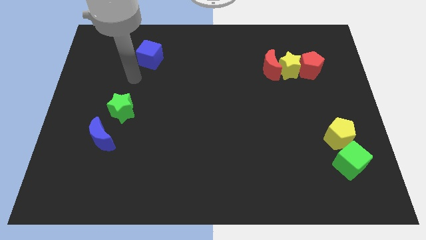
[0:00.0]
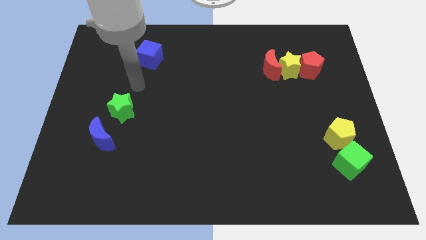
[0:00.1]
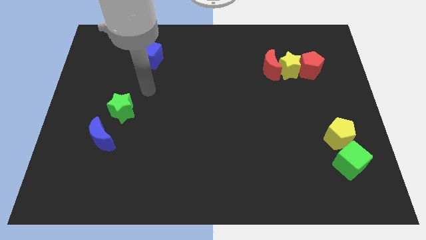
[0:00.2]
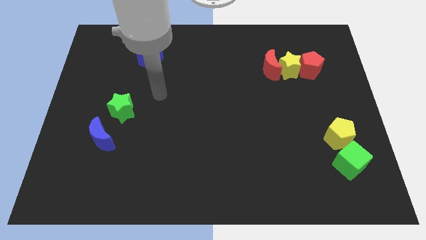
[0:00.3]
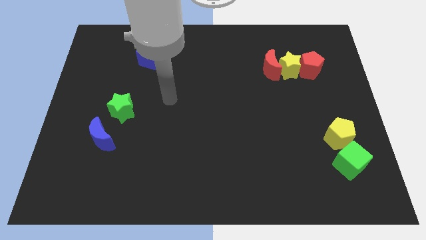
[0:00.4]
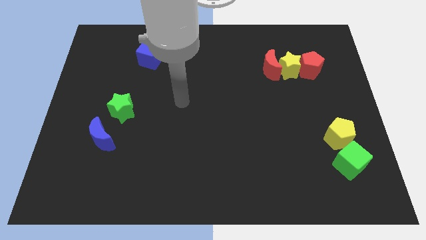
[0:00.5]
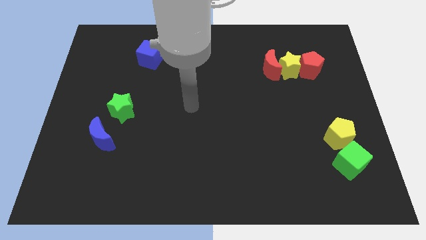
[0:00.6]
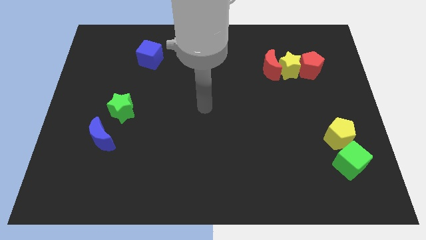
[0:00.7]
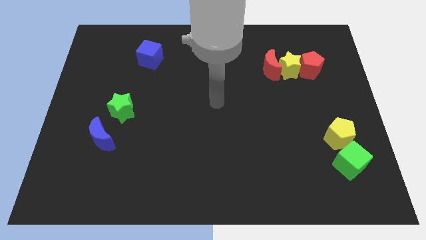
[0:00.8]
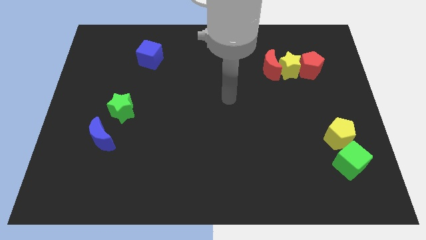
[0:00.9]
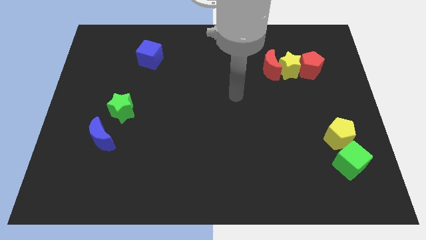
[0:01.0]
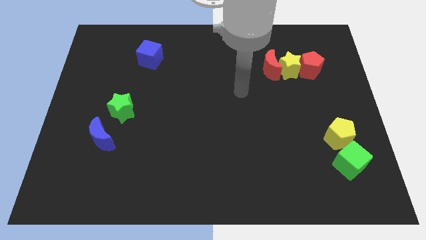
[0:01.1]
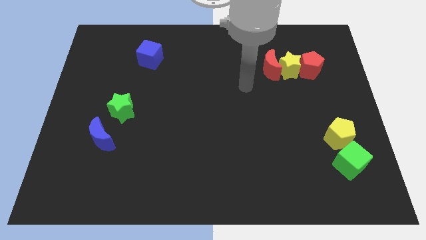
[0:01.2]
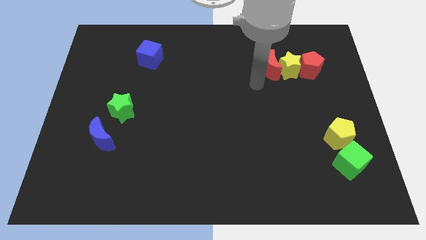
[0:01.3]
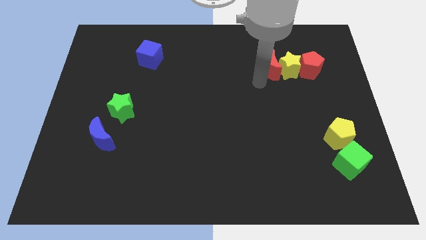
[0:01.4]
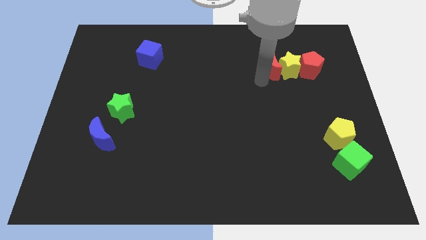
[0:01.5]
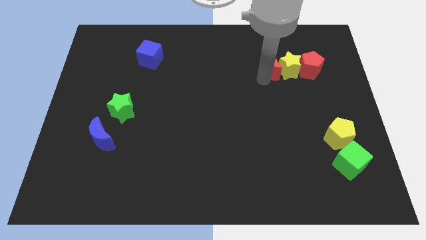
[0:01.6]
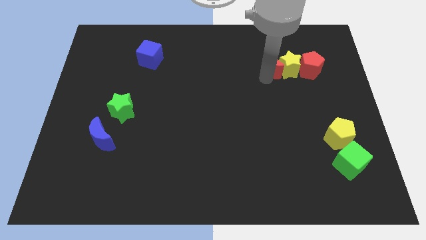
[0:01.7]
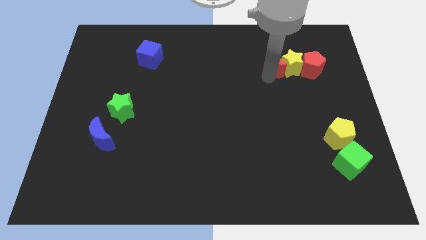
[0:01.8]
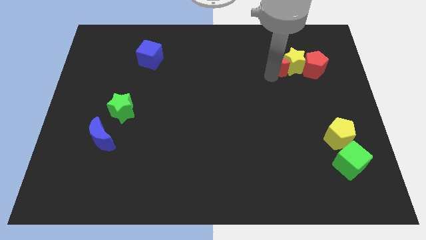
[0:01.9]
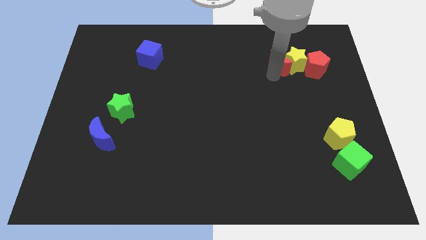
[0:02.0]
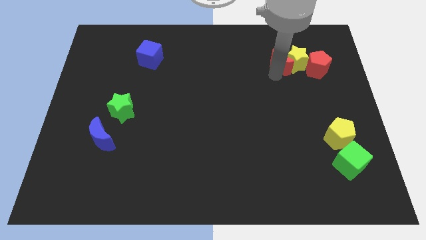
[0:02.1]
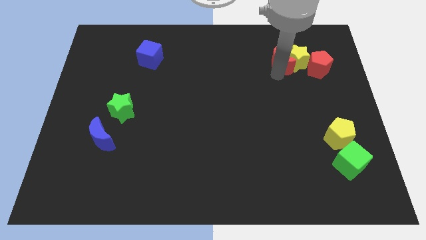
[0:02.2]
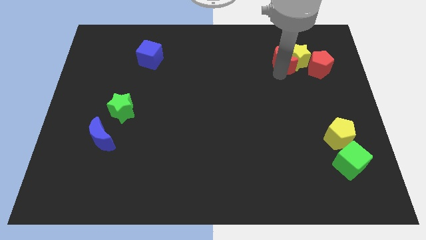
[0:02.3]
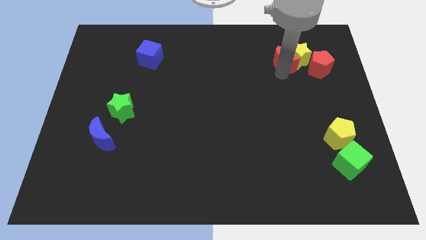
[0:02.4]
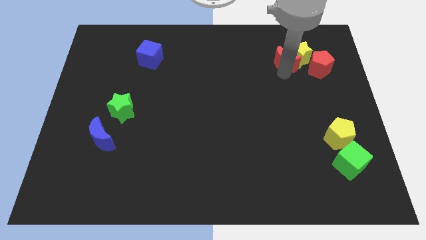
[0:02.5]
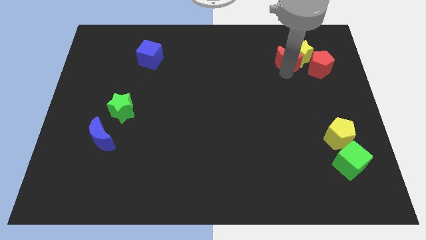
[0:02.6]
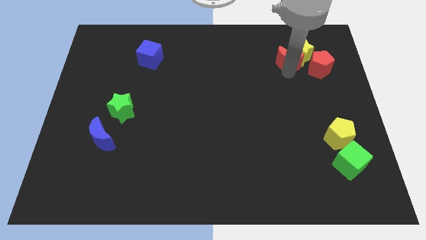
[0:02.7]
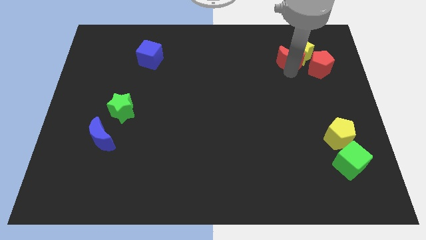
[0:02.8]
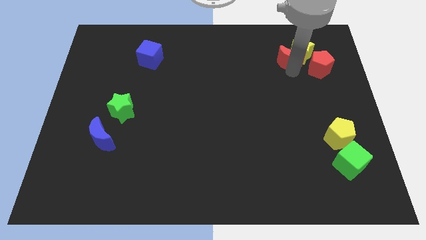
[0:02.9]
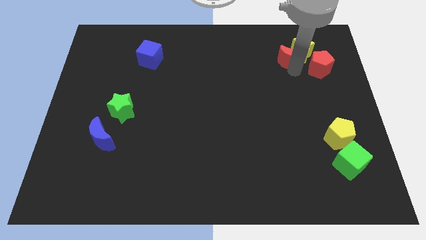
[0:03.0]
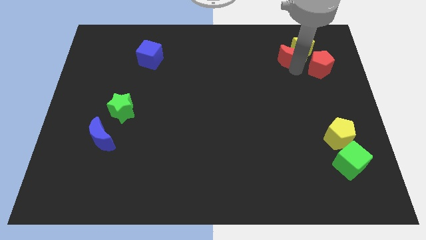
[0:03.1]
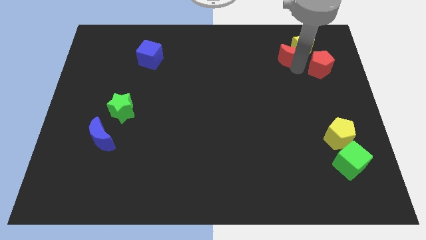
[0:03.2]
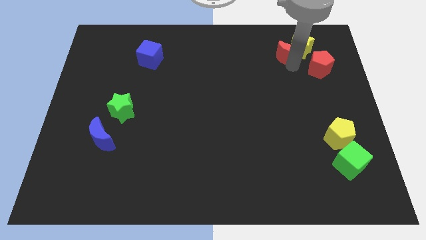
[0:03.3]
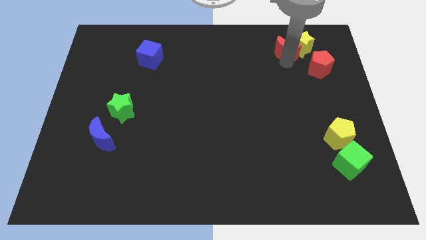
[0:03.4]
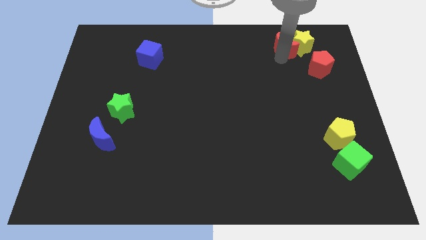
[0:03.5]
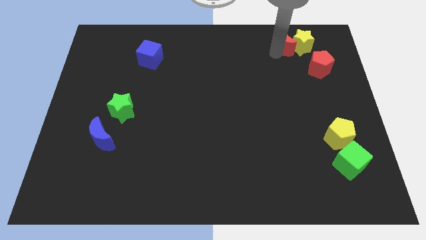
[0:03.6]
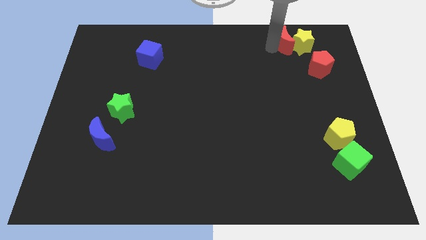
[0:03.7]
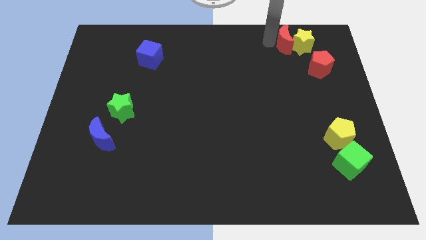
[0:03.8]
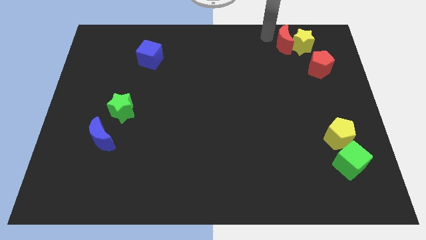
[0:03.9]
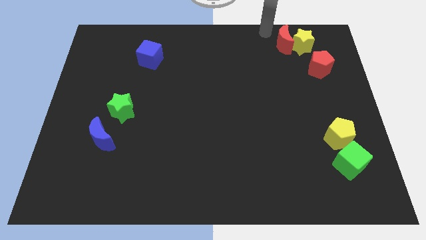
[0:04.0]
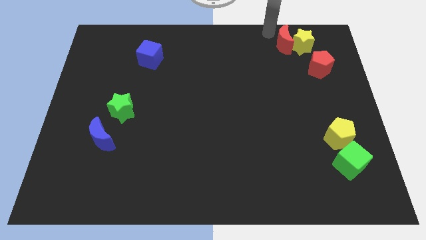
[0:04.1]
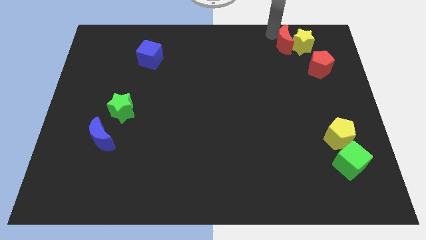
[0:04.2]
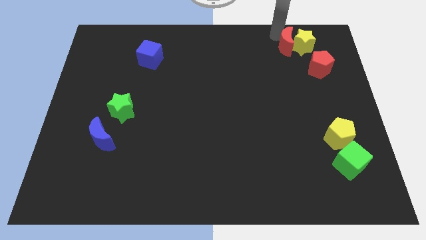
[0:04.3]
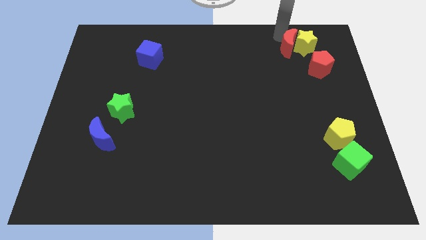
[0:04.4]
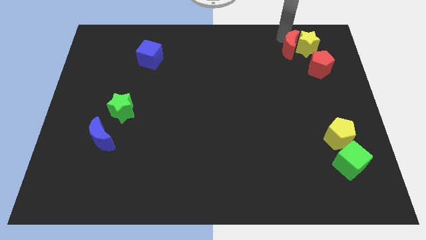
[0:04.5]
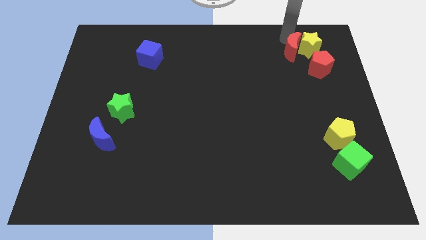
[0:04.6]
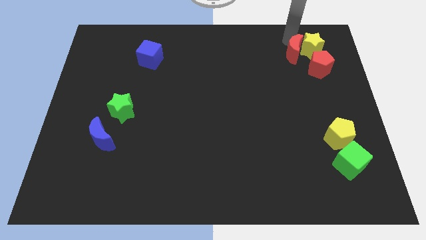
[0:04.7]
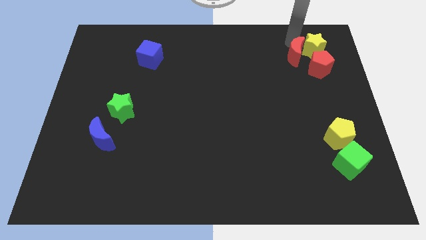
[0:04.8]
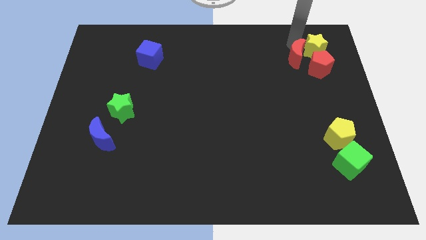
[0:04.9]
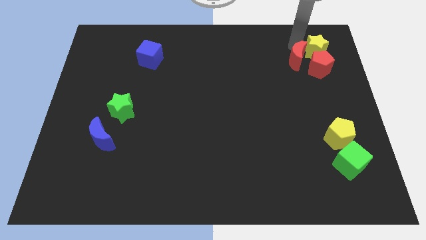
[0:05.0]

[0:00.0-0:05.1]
slide the red moon to the red pentagon

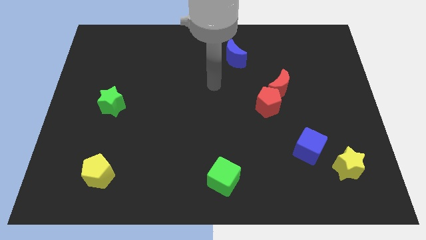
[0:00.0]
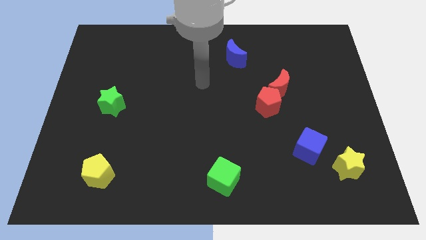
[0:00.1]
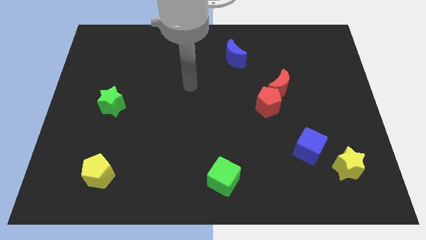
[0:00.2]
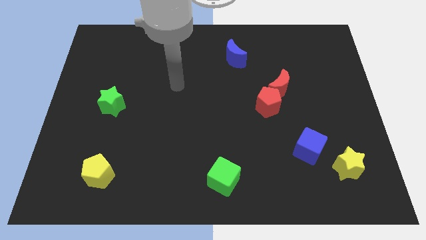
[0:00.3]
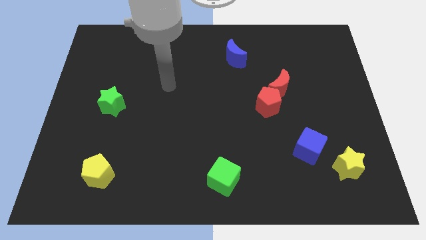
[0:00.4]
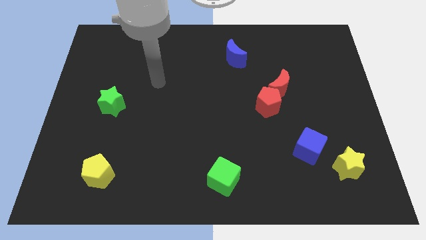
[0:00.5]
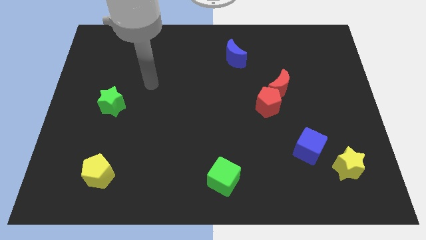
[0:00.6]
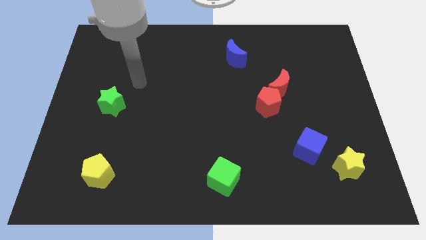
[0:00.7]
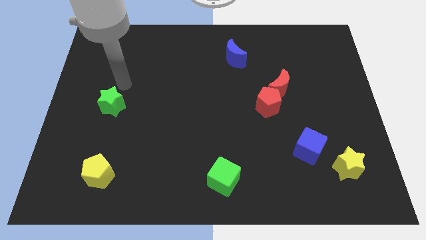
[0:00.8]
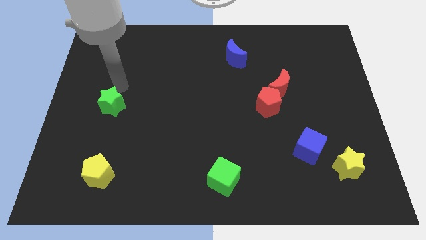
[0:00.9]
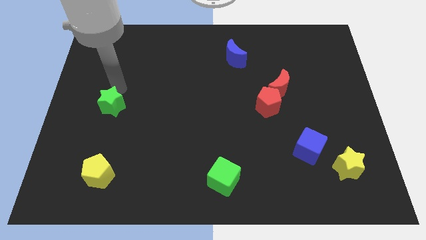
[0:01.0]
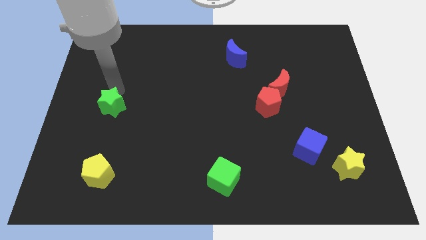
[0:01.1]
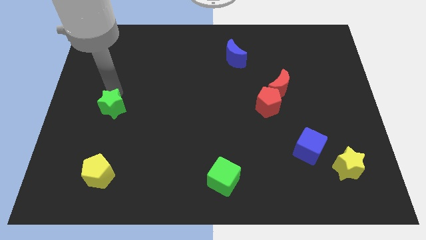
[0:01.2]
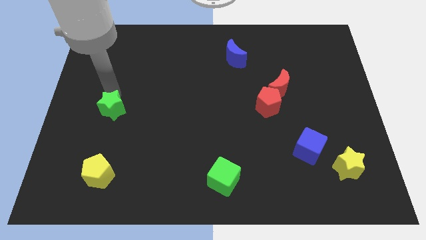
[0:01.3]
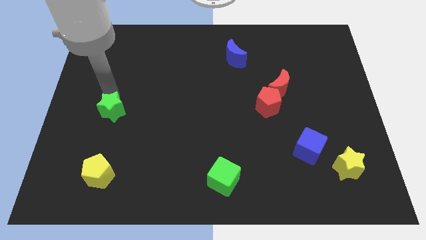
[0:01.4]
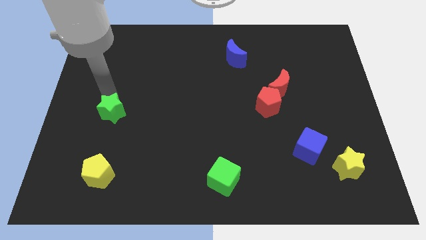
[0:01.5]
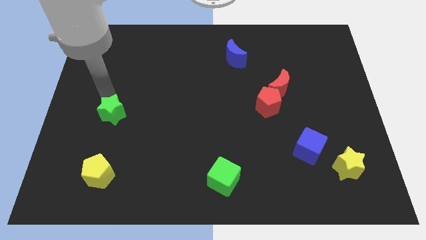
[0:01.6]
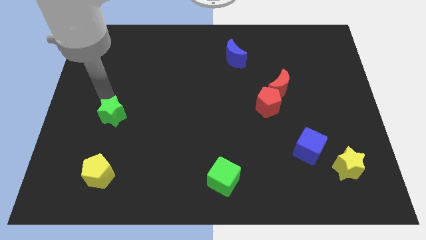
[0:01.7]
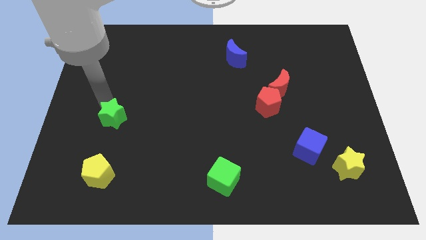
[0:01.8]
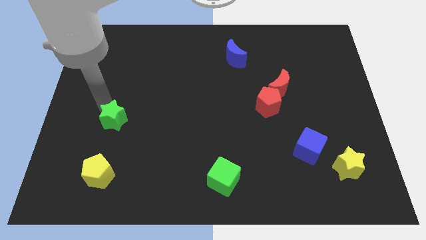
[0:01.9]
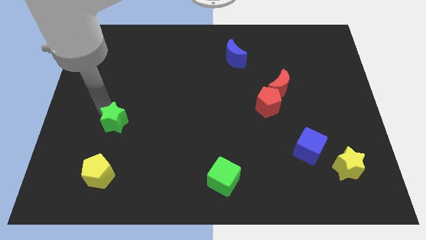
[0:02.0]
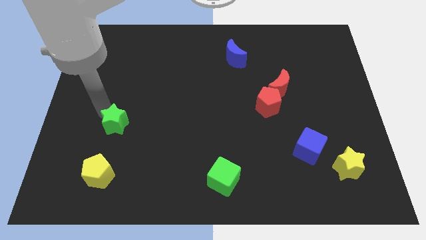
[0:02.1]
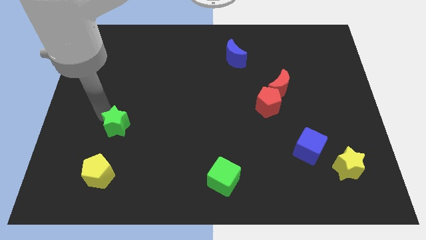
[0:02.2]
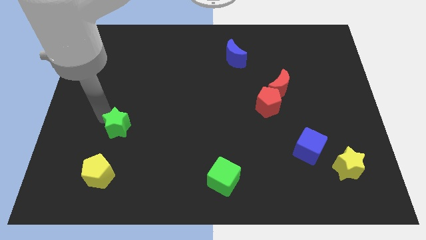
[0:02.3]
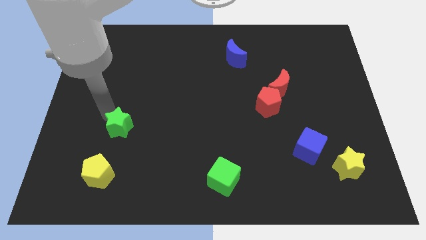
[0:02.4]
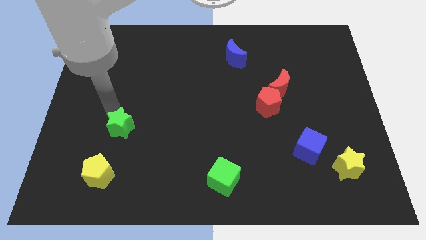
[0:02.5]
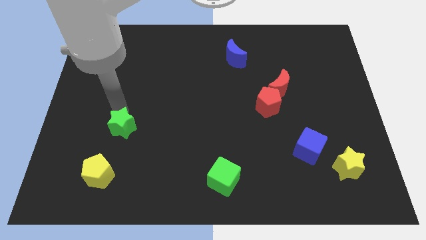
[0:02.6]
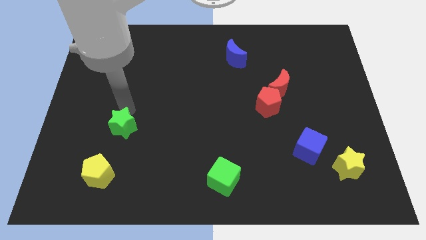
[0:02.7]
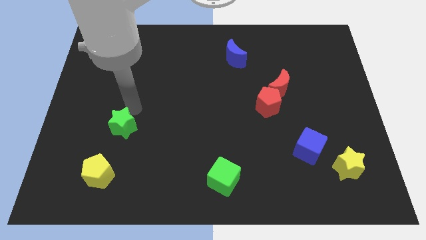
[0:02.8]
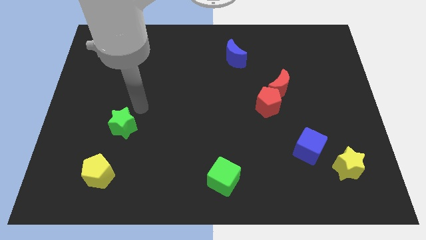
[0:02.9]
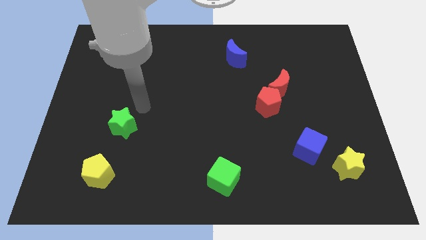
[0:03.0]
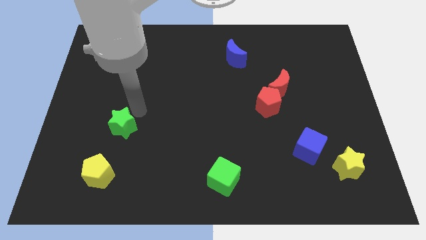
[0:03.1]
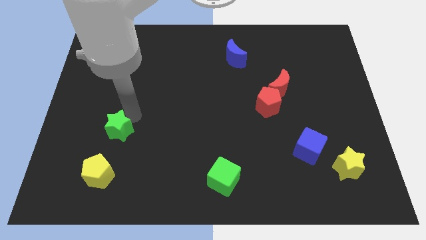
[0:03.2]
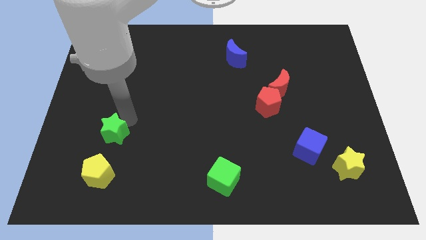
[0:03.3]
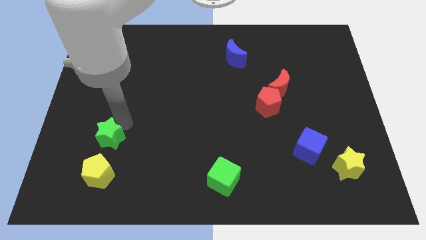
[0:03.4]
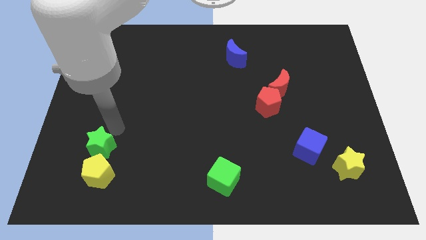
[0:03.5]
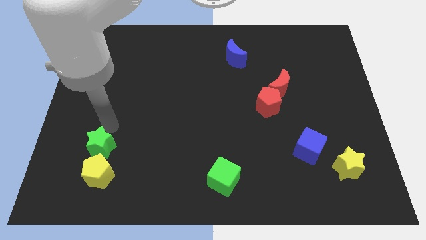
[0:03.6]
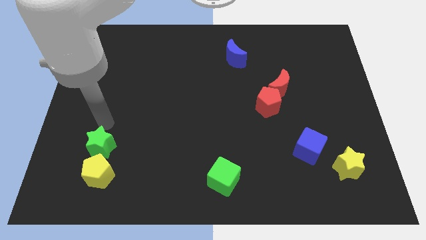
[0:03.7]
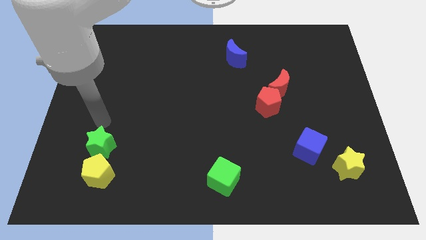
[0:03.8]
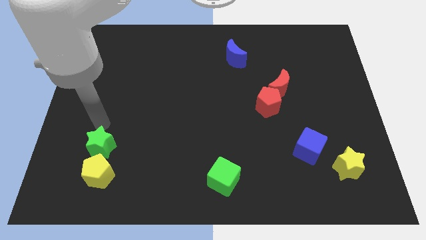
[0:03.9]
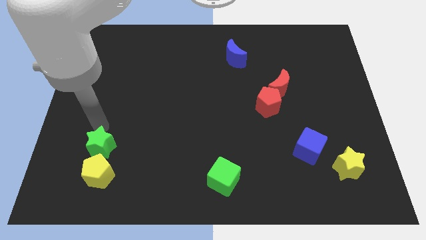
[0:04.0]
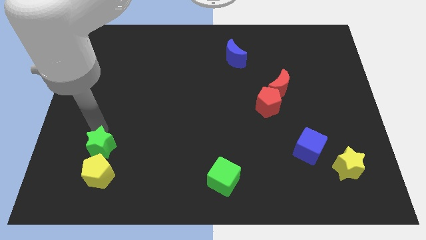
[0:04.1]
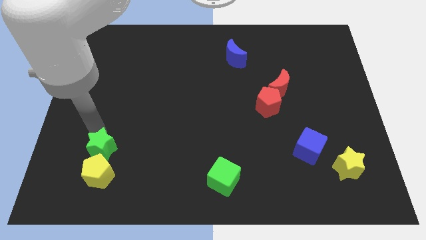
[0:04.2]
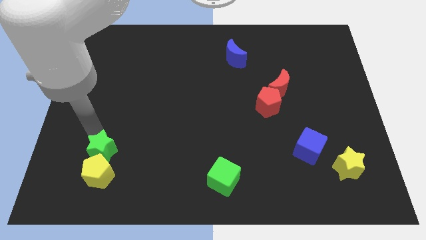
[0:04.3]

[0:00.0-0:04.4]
push the green star next to the yellow pentagon
